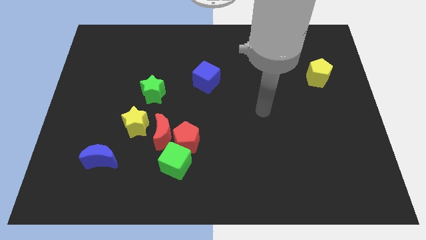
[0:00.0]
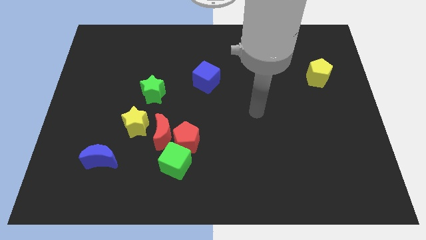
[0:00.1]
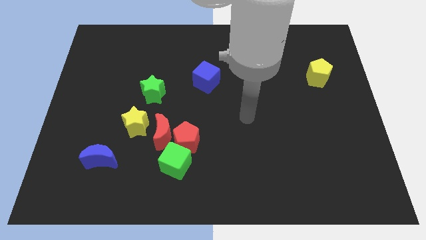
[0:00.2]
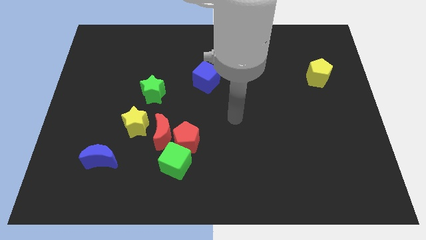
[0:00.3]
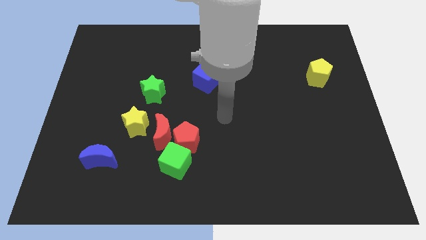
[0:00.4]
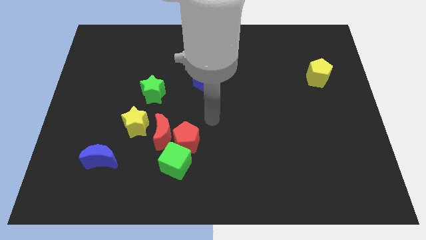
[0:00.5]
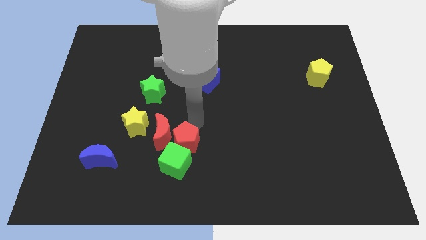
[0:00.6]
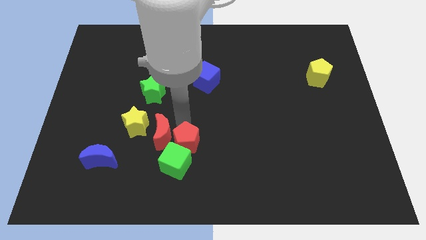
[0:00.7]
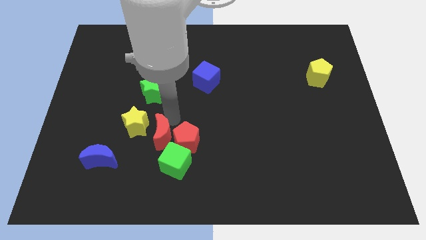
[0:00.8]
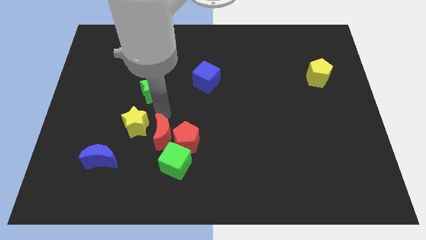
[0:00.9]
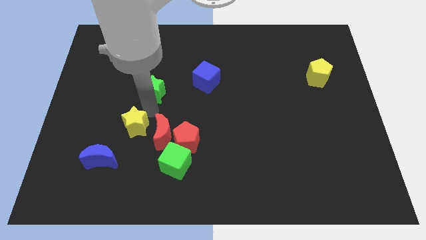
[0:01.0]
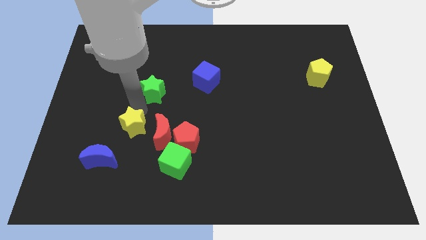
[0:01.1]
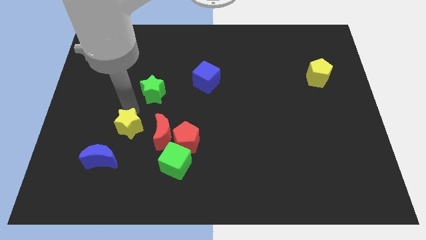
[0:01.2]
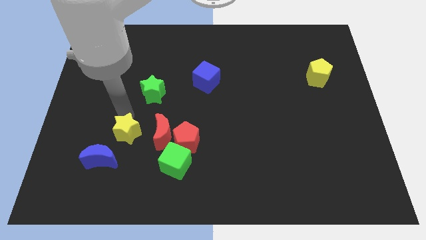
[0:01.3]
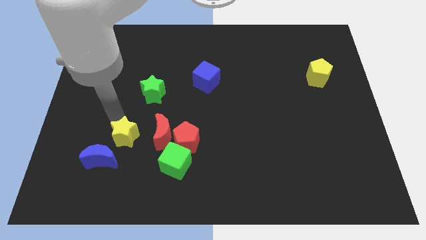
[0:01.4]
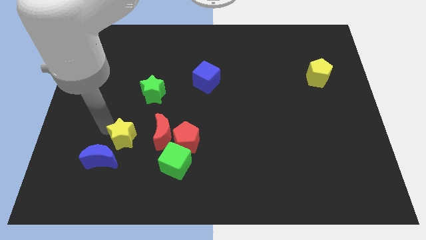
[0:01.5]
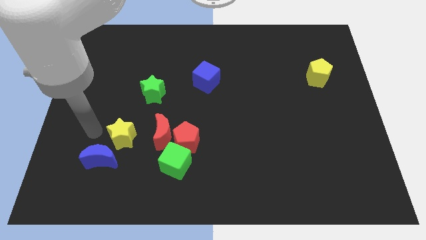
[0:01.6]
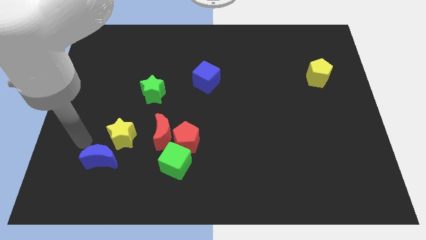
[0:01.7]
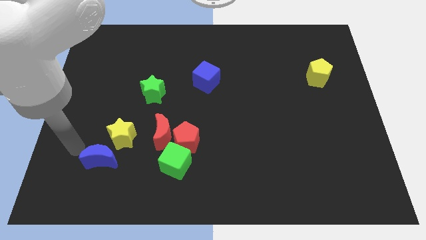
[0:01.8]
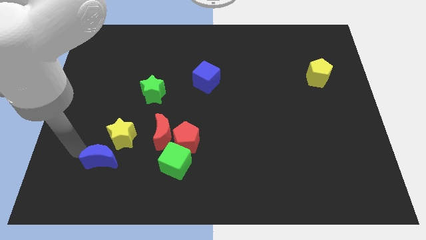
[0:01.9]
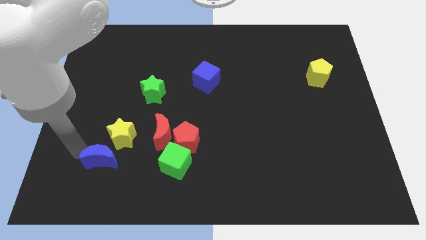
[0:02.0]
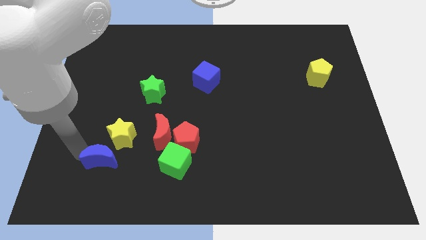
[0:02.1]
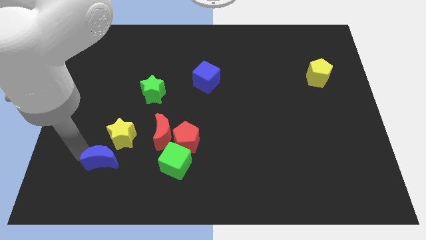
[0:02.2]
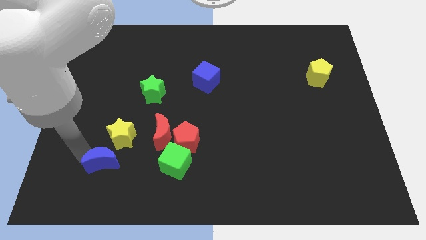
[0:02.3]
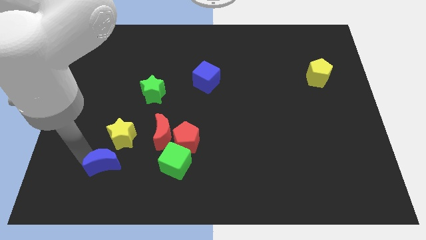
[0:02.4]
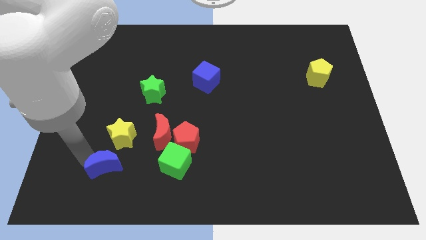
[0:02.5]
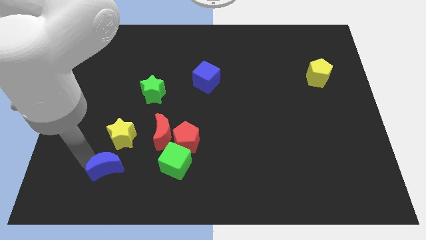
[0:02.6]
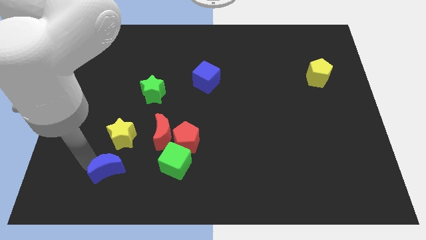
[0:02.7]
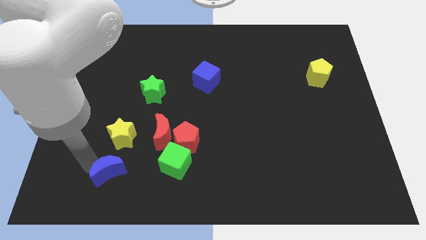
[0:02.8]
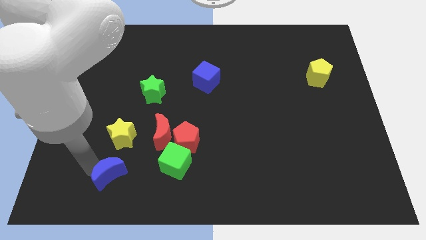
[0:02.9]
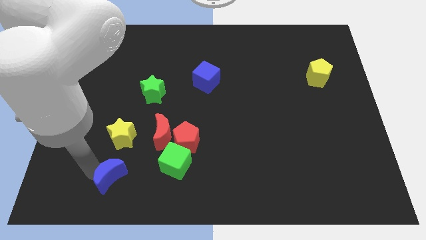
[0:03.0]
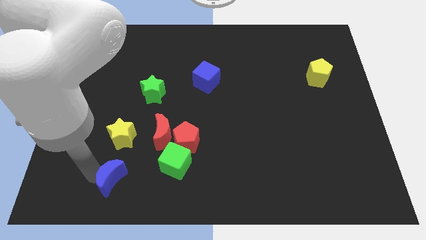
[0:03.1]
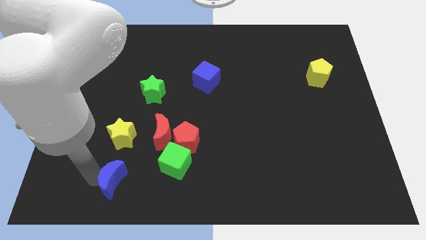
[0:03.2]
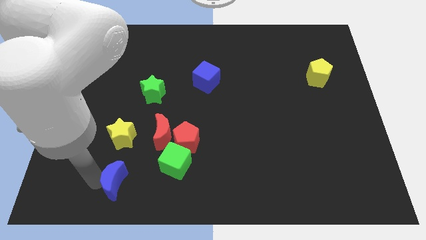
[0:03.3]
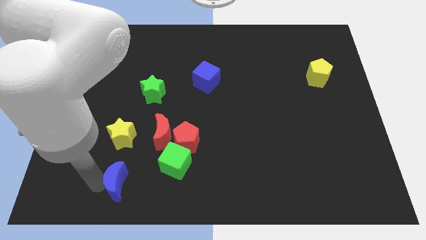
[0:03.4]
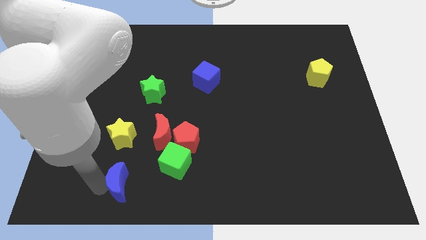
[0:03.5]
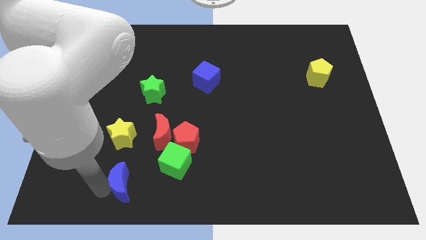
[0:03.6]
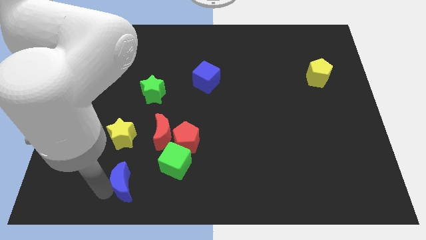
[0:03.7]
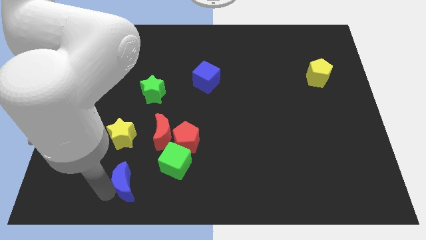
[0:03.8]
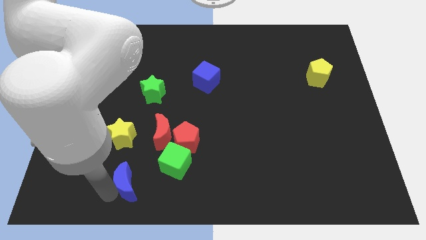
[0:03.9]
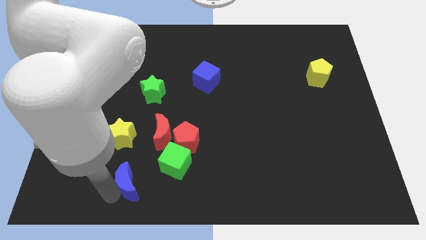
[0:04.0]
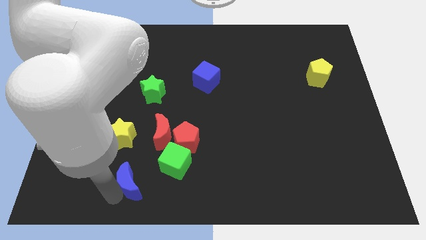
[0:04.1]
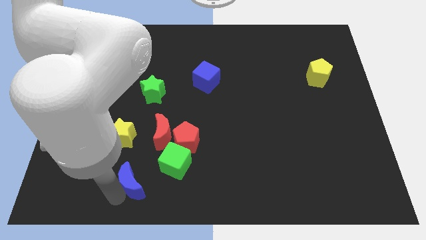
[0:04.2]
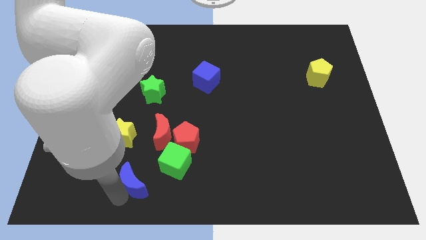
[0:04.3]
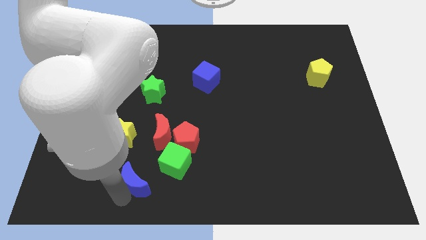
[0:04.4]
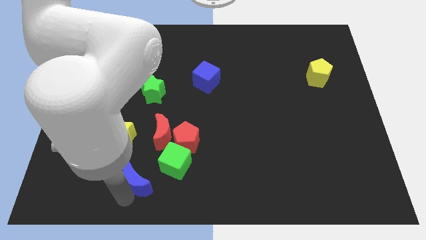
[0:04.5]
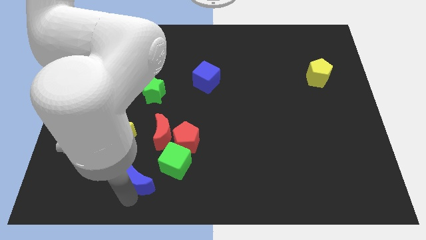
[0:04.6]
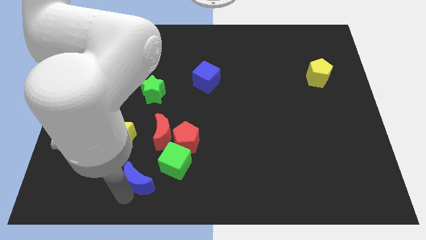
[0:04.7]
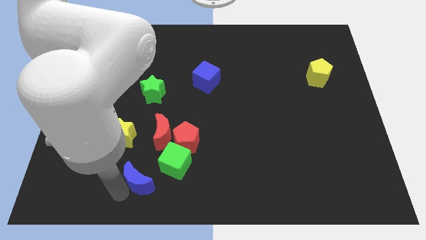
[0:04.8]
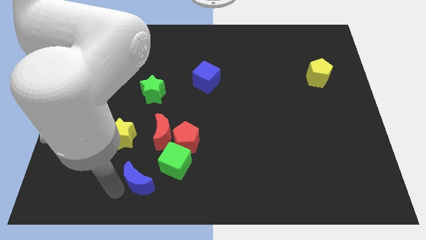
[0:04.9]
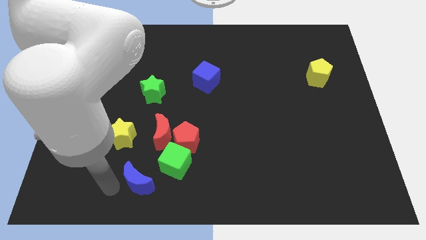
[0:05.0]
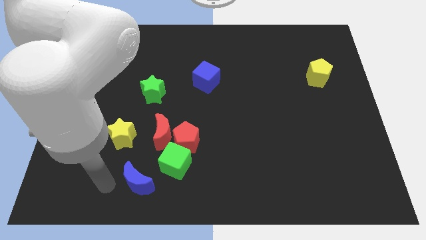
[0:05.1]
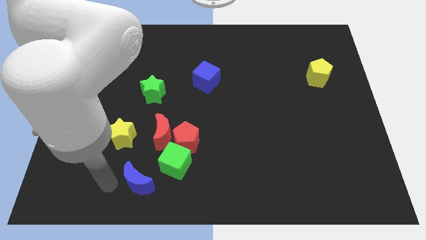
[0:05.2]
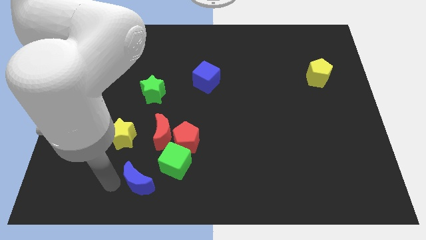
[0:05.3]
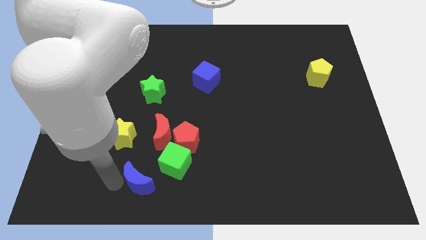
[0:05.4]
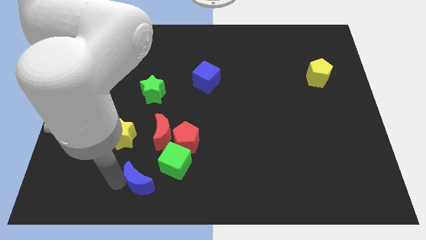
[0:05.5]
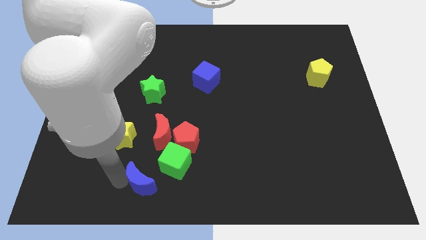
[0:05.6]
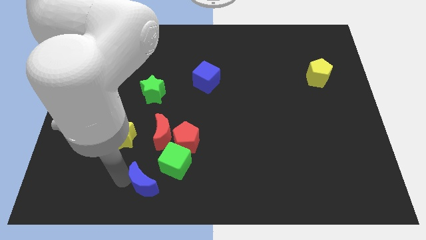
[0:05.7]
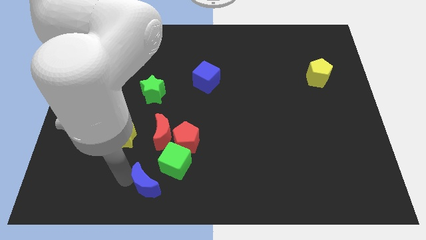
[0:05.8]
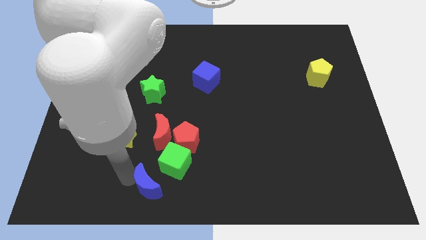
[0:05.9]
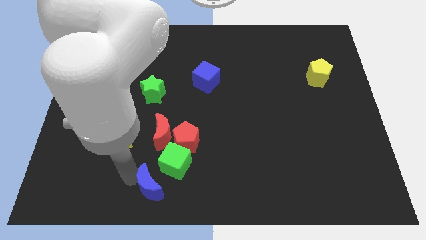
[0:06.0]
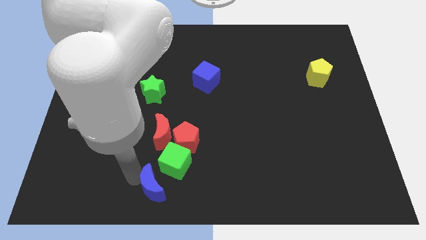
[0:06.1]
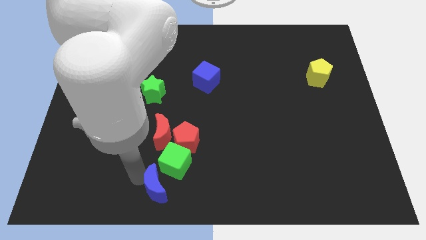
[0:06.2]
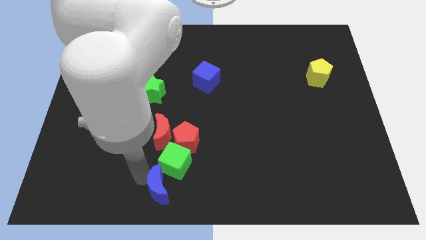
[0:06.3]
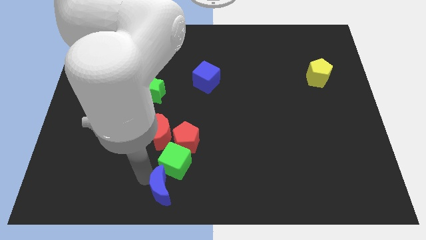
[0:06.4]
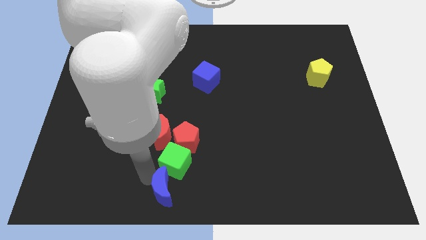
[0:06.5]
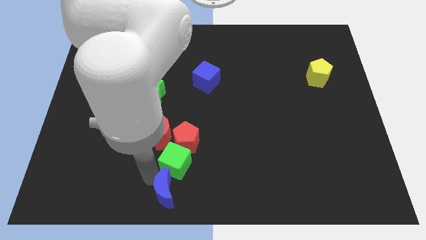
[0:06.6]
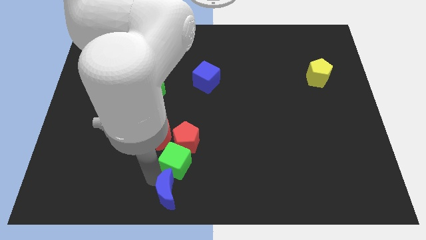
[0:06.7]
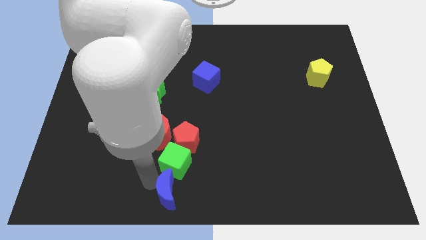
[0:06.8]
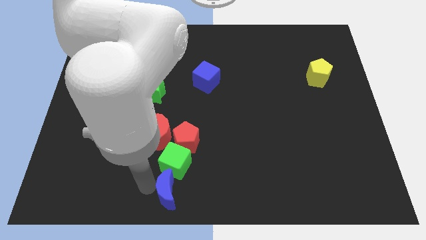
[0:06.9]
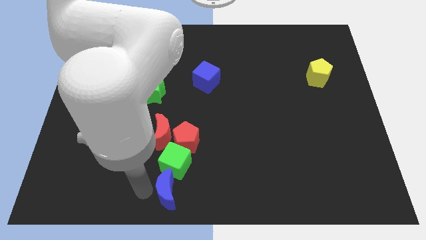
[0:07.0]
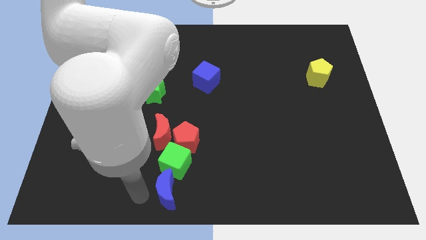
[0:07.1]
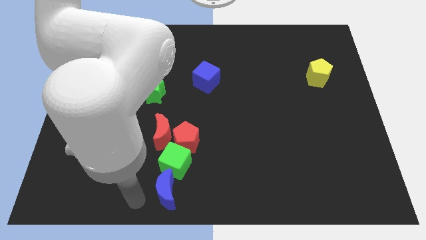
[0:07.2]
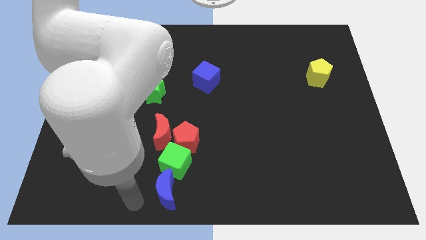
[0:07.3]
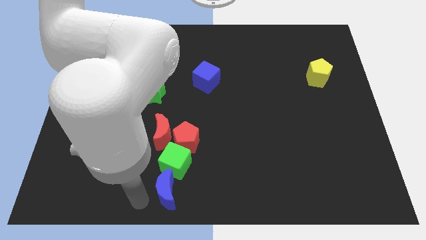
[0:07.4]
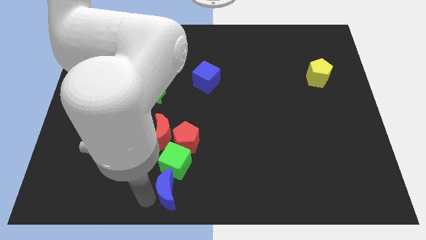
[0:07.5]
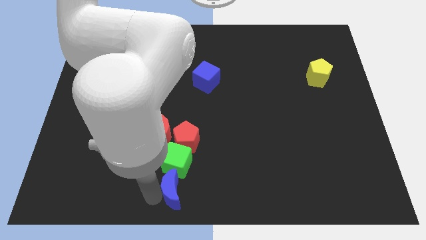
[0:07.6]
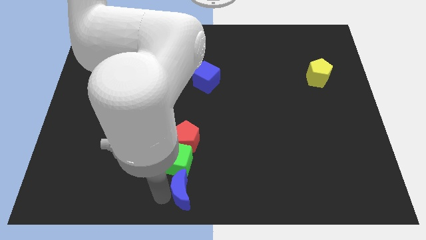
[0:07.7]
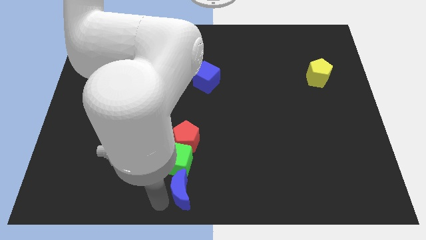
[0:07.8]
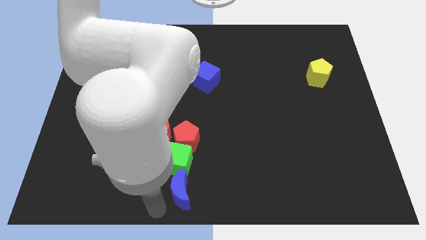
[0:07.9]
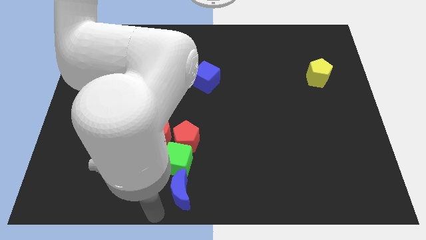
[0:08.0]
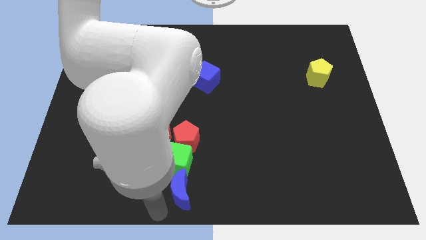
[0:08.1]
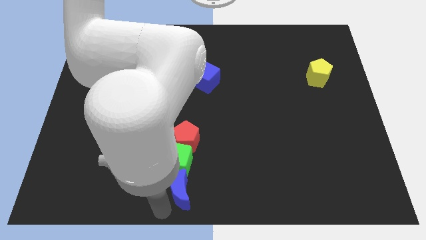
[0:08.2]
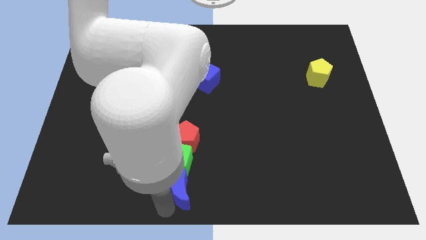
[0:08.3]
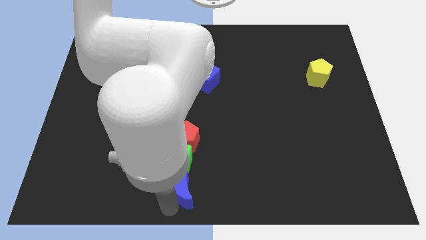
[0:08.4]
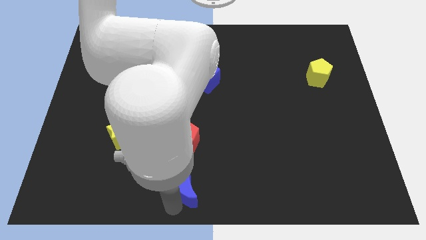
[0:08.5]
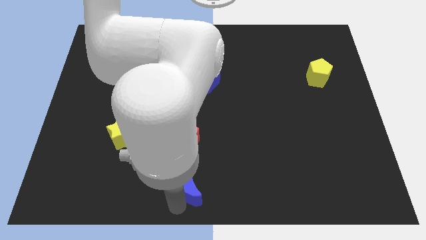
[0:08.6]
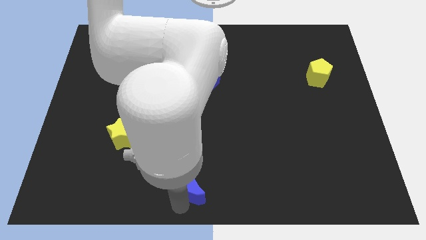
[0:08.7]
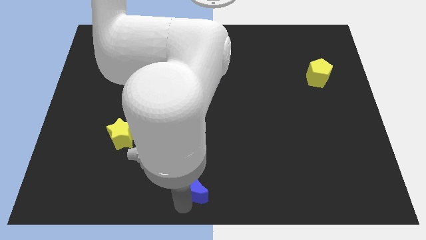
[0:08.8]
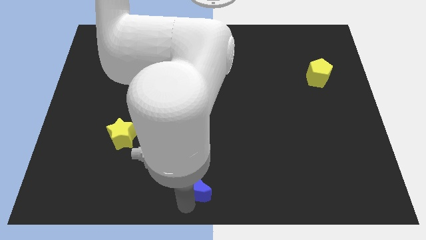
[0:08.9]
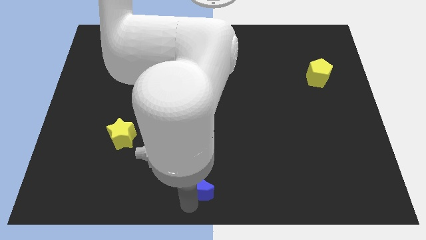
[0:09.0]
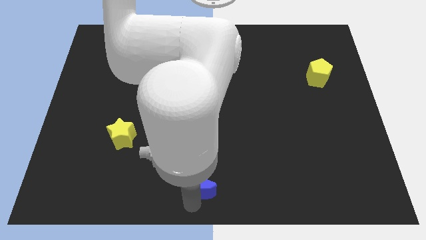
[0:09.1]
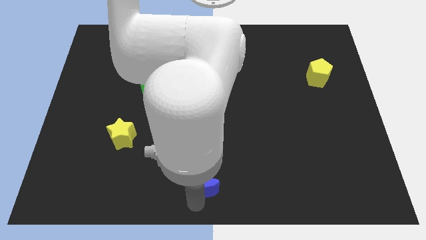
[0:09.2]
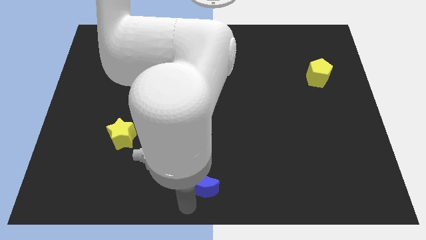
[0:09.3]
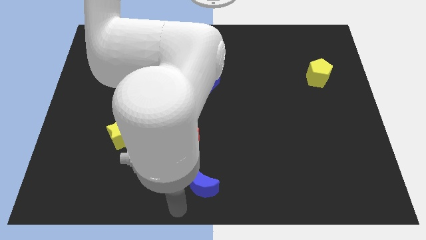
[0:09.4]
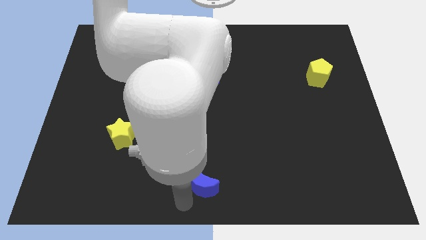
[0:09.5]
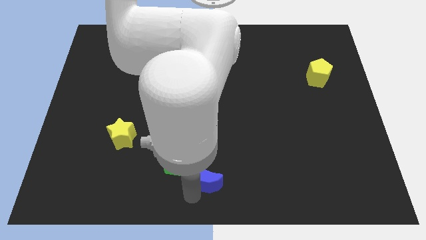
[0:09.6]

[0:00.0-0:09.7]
slide the blue moon right of the green cube
